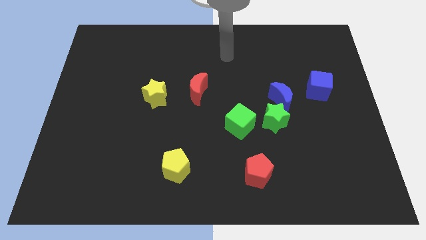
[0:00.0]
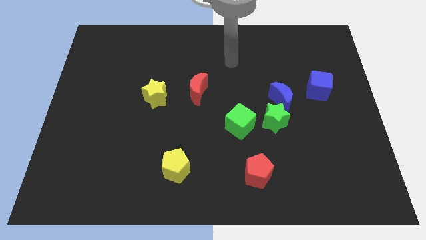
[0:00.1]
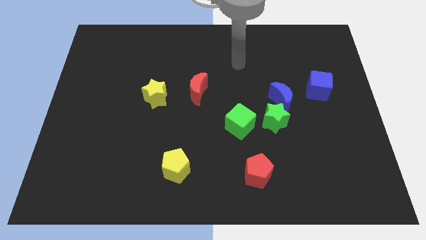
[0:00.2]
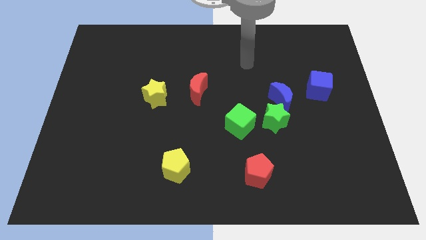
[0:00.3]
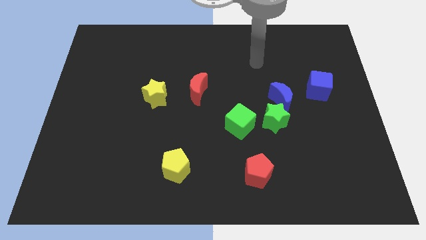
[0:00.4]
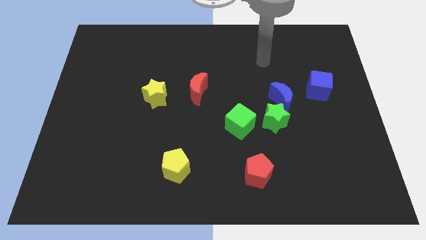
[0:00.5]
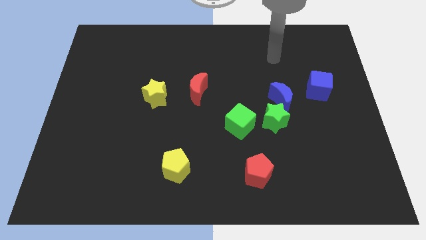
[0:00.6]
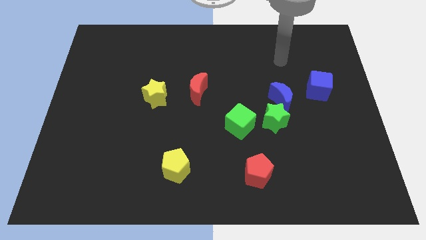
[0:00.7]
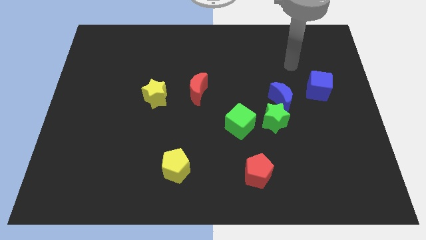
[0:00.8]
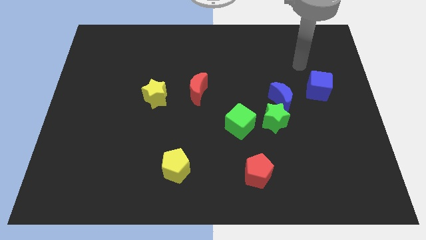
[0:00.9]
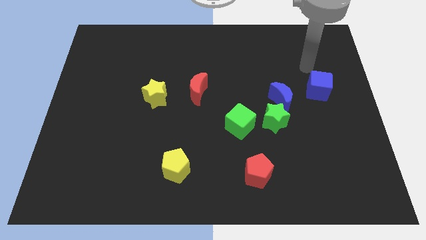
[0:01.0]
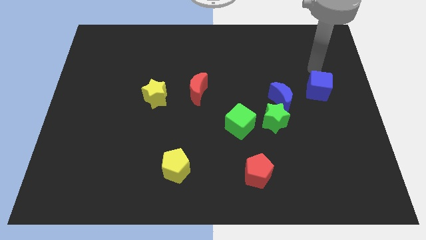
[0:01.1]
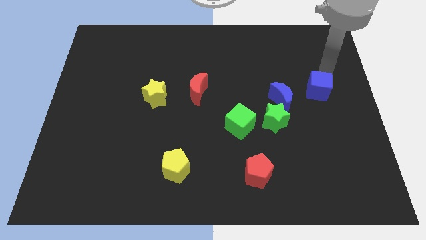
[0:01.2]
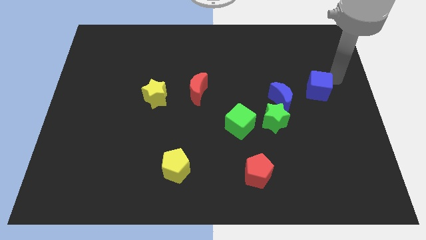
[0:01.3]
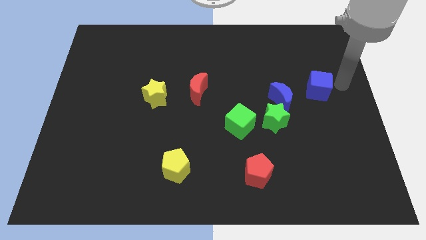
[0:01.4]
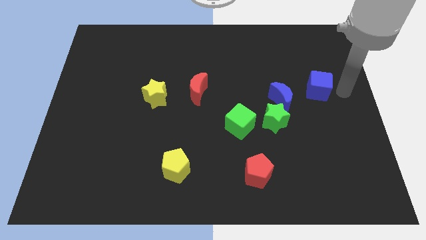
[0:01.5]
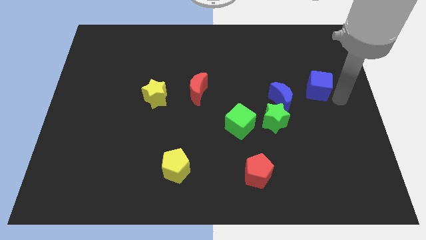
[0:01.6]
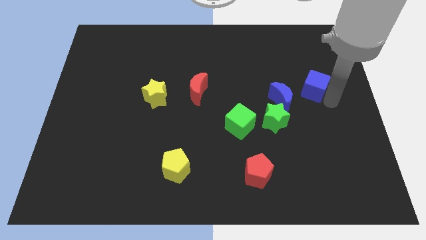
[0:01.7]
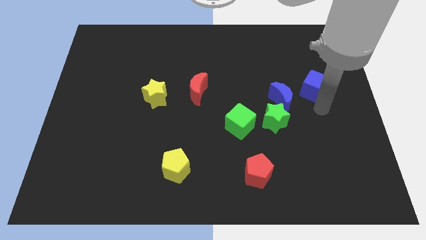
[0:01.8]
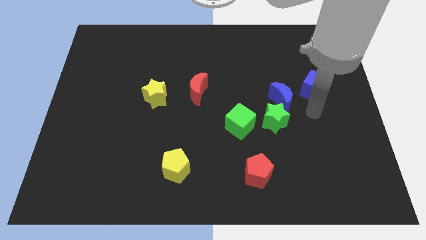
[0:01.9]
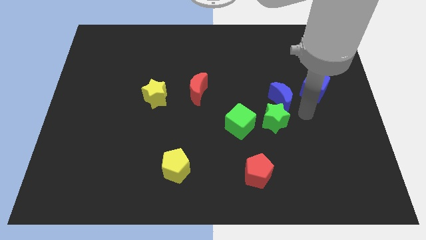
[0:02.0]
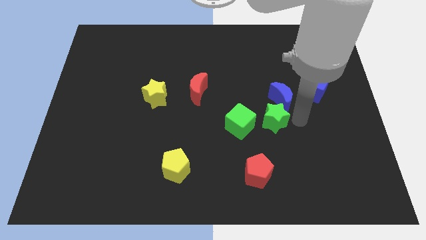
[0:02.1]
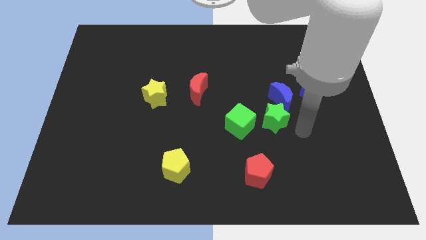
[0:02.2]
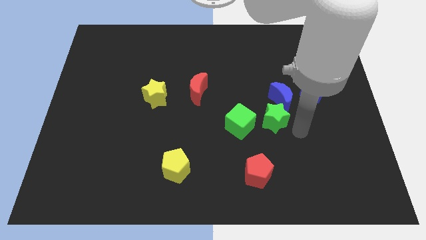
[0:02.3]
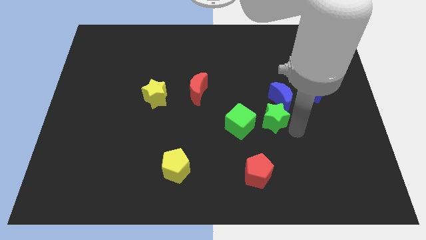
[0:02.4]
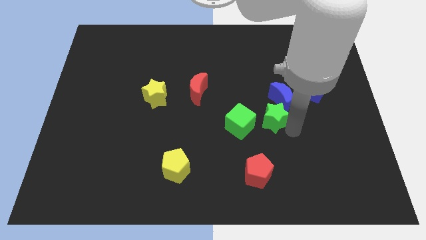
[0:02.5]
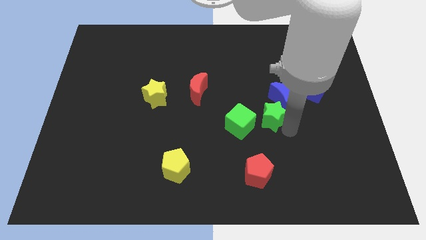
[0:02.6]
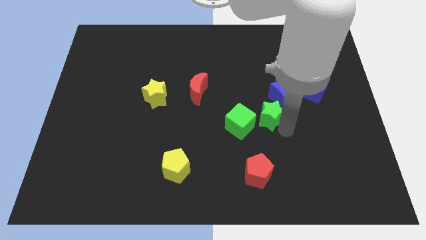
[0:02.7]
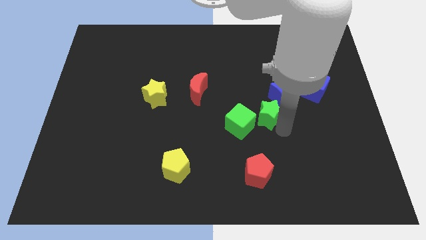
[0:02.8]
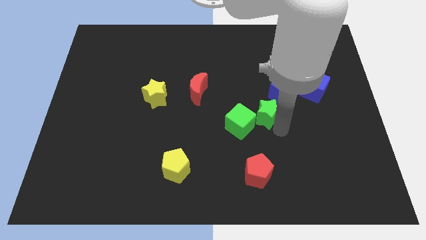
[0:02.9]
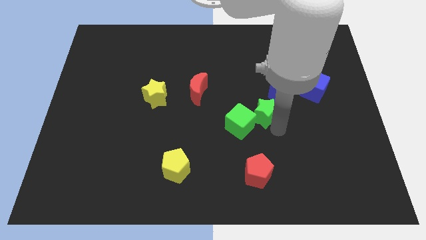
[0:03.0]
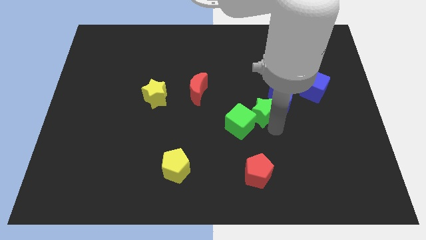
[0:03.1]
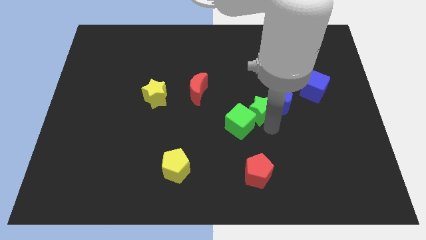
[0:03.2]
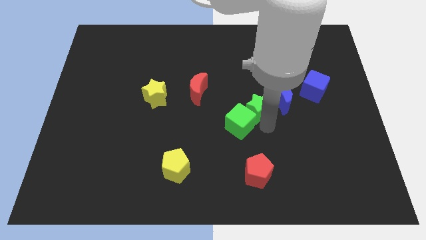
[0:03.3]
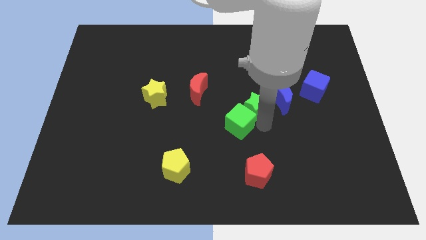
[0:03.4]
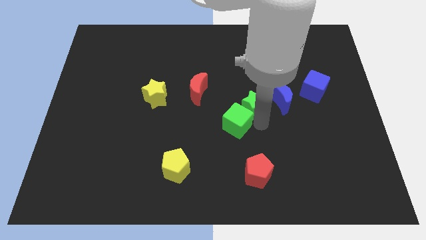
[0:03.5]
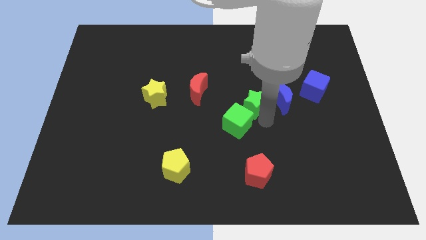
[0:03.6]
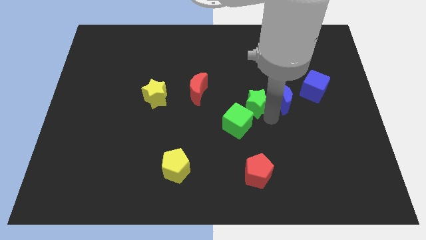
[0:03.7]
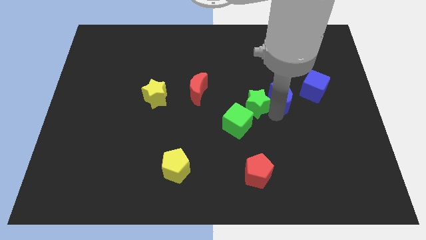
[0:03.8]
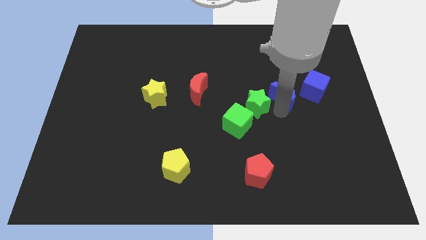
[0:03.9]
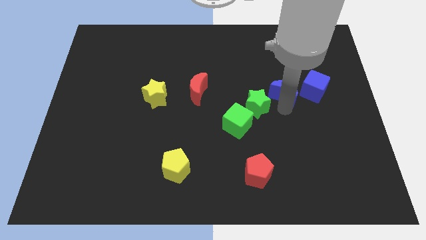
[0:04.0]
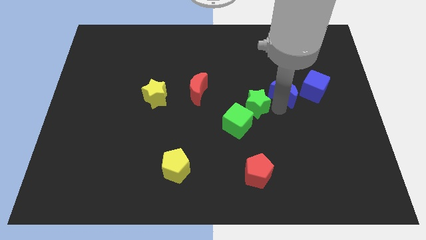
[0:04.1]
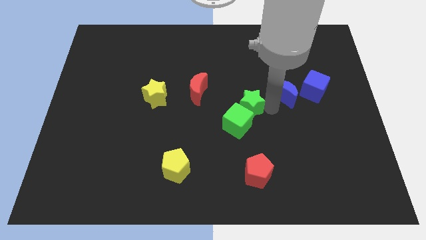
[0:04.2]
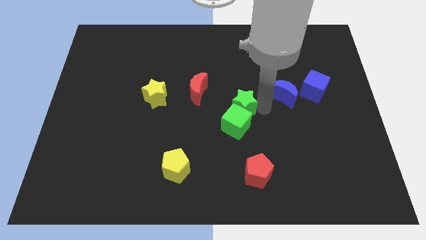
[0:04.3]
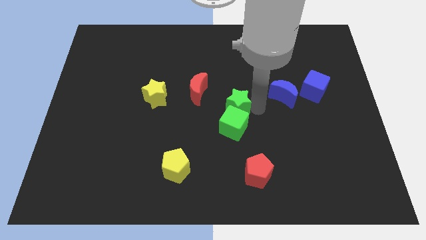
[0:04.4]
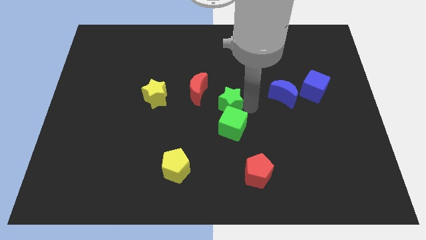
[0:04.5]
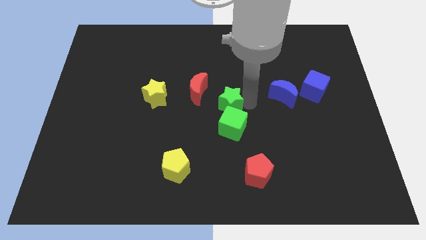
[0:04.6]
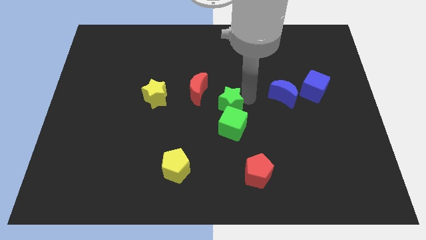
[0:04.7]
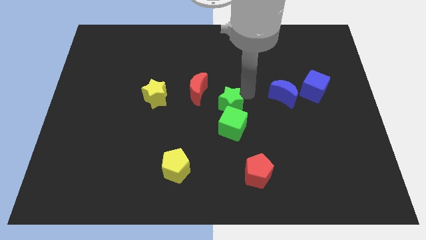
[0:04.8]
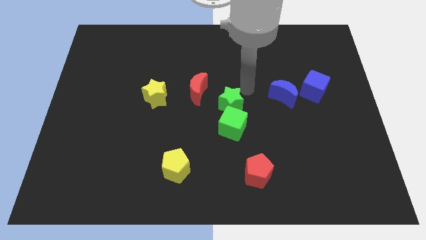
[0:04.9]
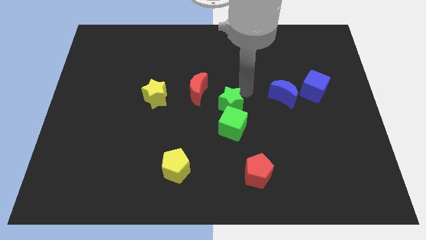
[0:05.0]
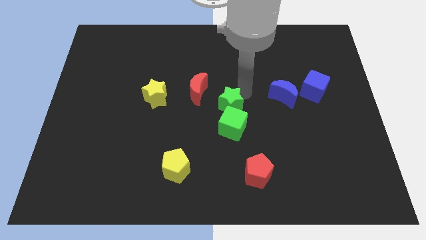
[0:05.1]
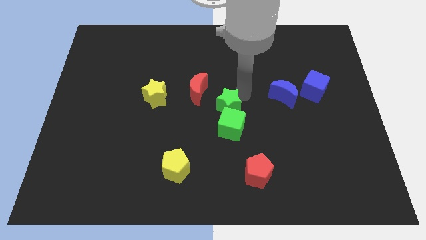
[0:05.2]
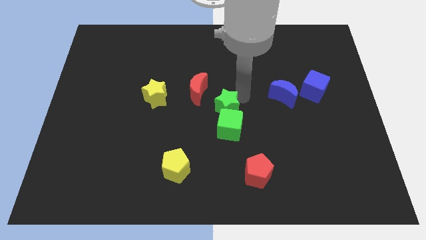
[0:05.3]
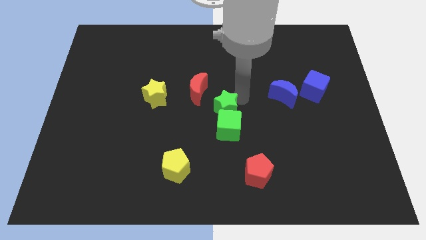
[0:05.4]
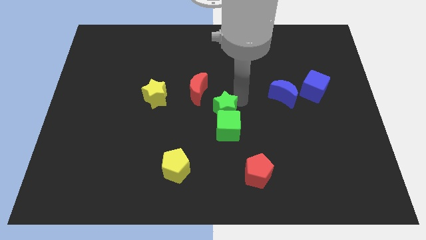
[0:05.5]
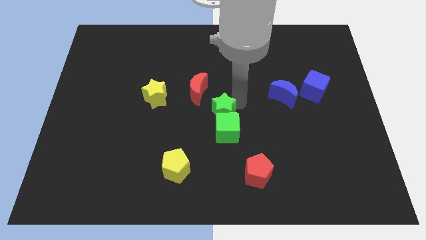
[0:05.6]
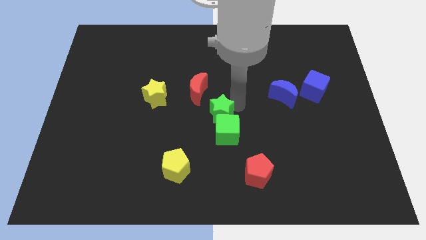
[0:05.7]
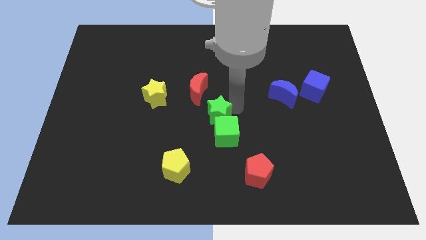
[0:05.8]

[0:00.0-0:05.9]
push the green star below the red moon

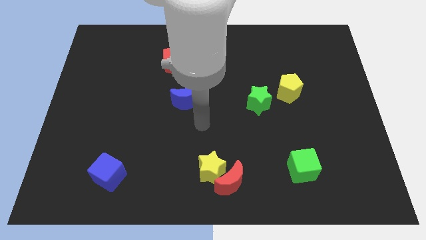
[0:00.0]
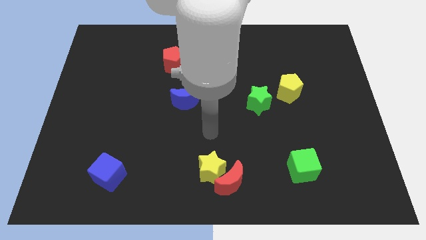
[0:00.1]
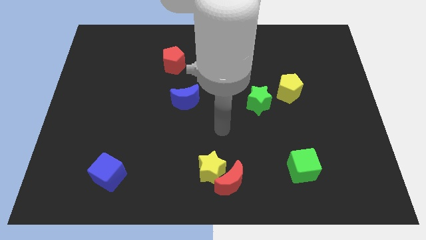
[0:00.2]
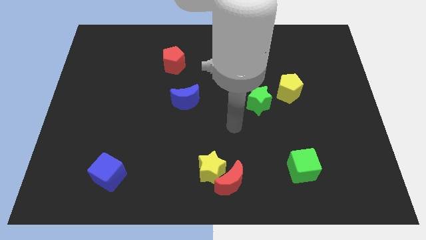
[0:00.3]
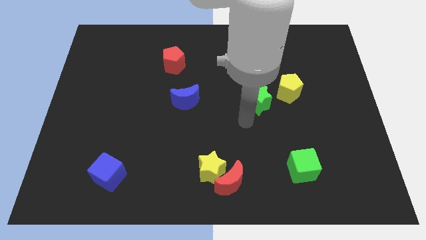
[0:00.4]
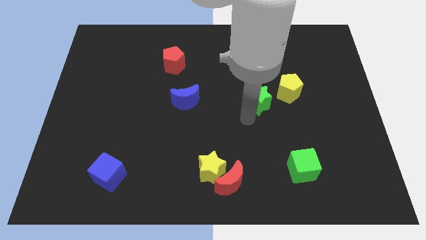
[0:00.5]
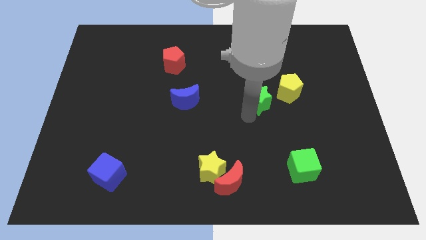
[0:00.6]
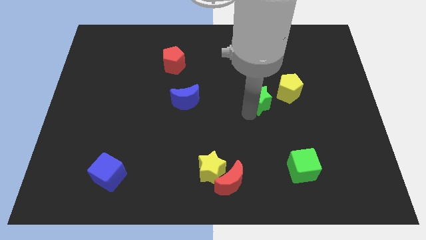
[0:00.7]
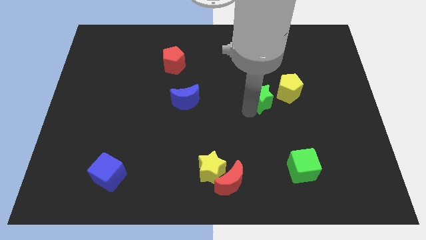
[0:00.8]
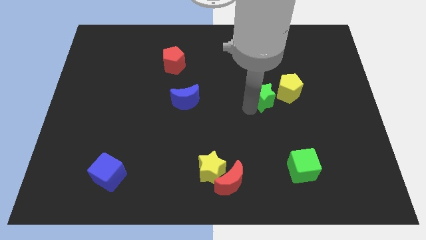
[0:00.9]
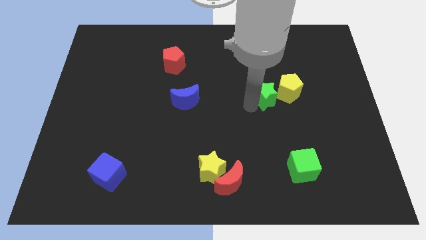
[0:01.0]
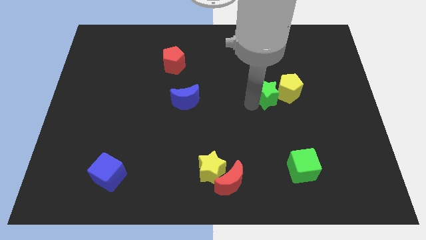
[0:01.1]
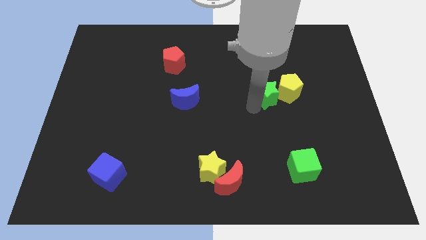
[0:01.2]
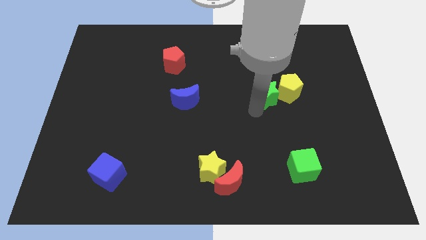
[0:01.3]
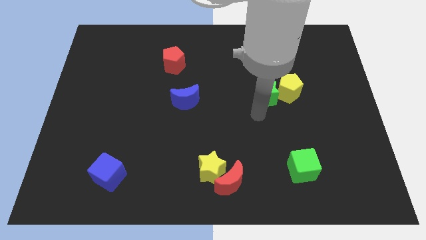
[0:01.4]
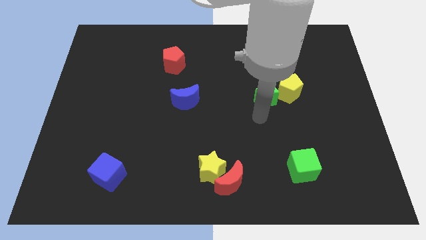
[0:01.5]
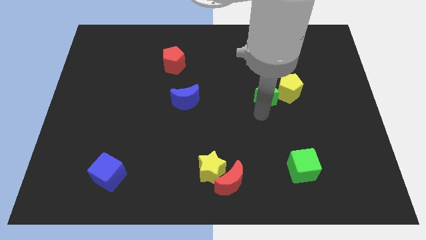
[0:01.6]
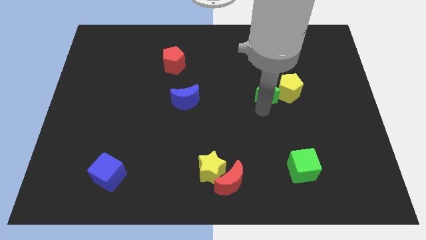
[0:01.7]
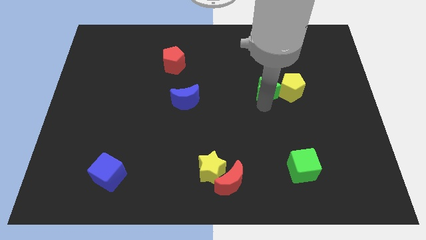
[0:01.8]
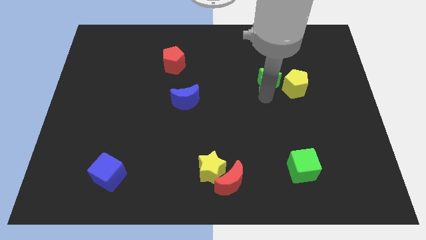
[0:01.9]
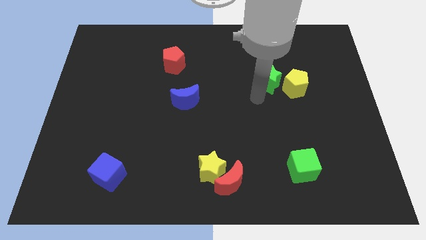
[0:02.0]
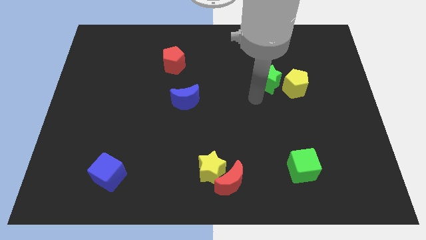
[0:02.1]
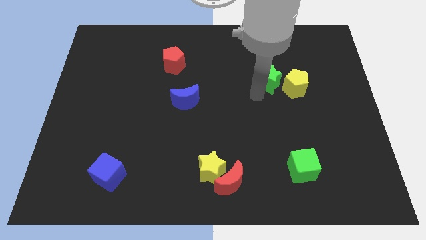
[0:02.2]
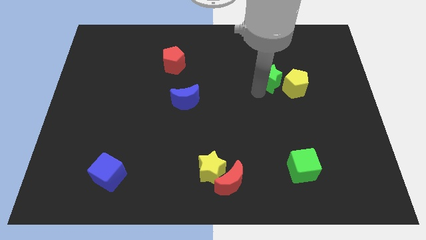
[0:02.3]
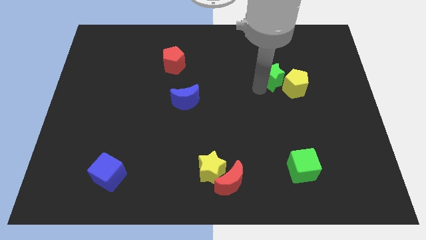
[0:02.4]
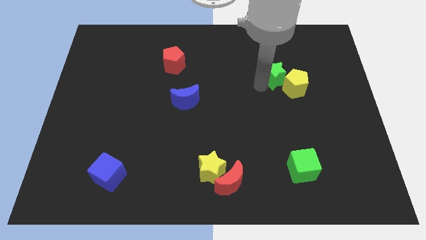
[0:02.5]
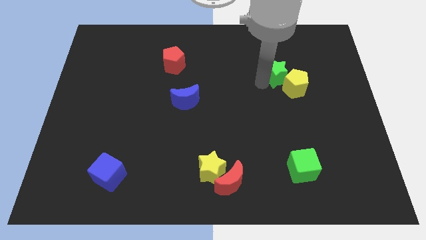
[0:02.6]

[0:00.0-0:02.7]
move the green star above the yellow pentagon
